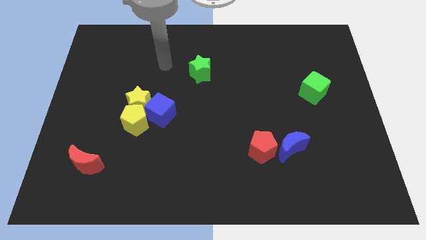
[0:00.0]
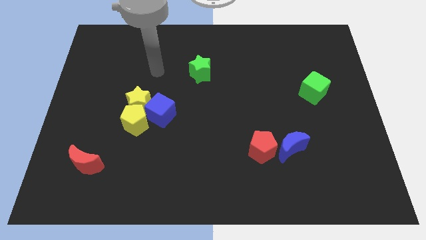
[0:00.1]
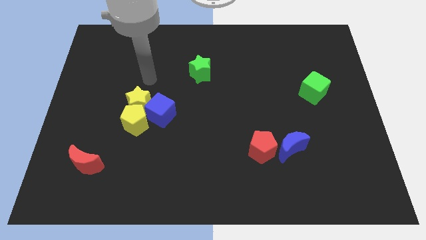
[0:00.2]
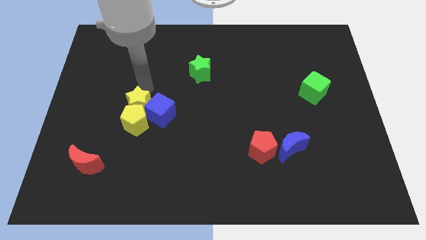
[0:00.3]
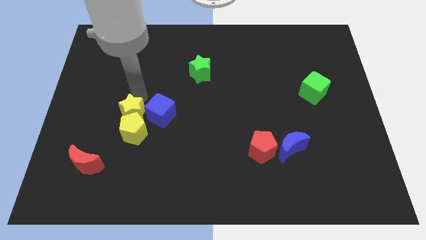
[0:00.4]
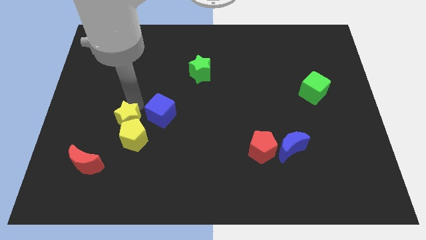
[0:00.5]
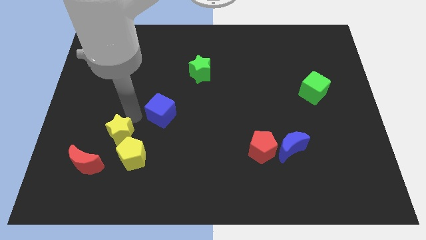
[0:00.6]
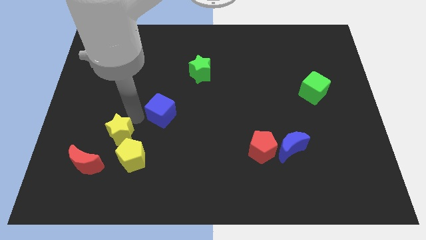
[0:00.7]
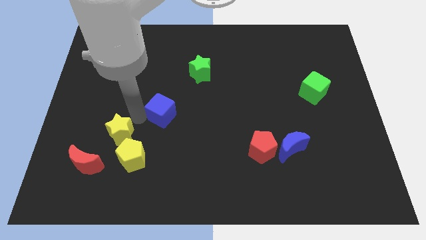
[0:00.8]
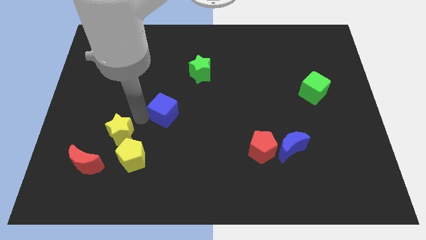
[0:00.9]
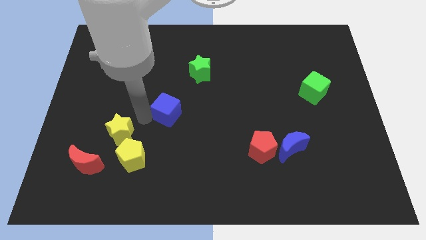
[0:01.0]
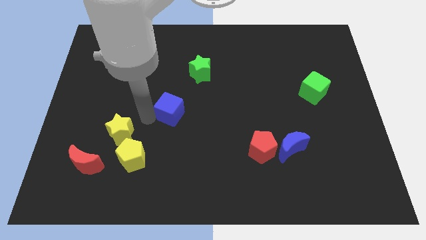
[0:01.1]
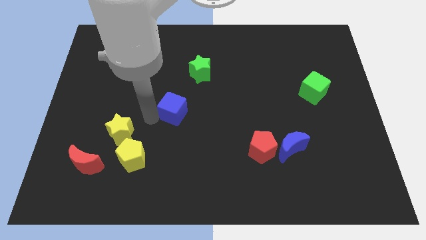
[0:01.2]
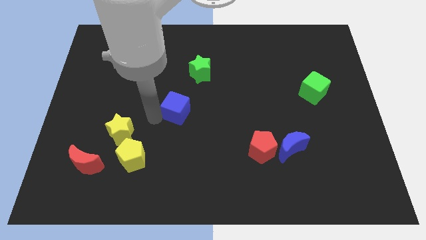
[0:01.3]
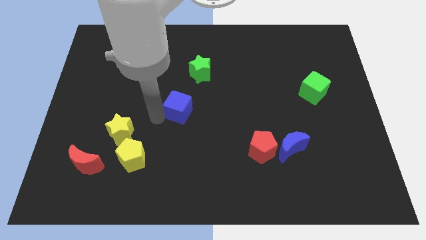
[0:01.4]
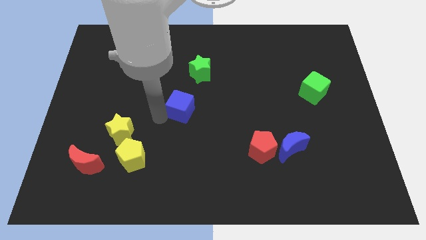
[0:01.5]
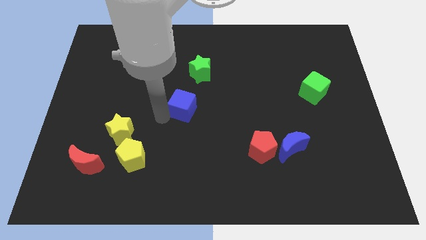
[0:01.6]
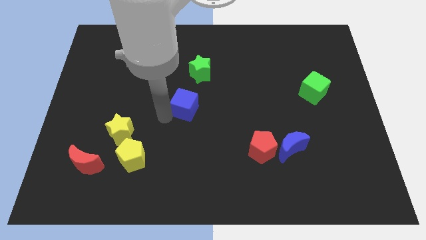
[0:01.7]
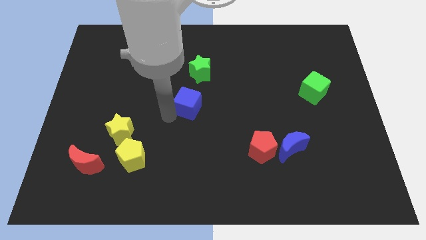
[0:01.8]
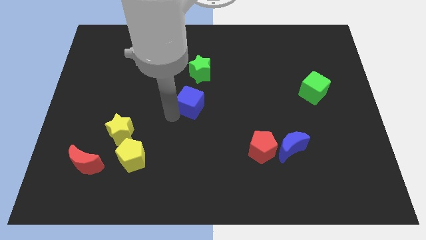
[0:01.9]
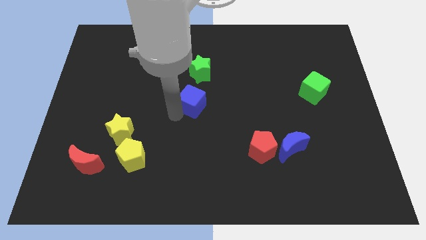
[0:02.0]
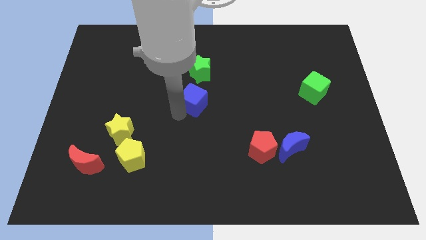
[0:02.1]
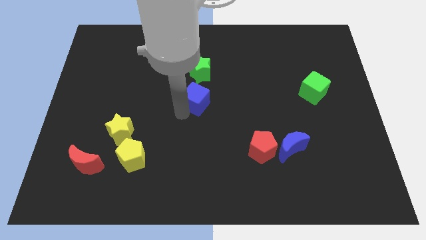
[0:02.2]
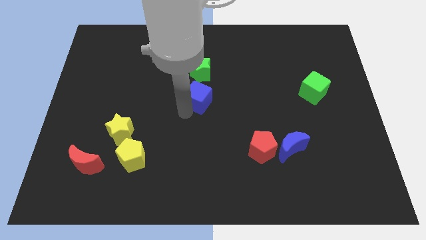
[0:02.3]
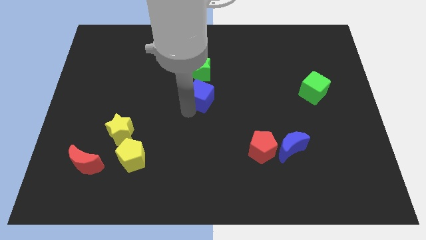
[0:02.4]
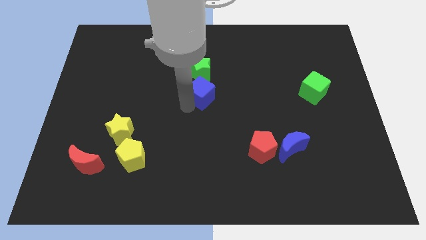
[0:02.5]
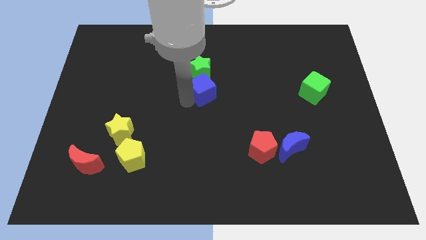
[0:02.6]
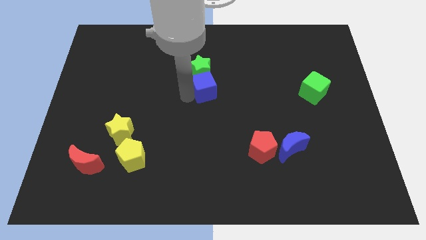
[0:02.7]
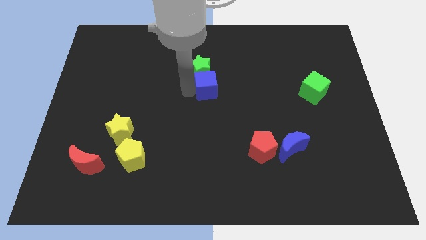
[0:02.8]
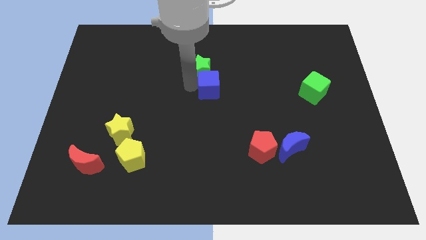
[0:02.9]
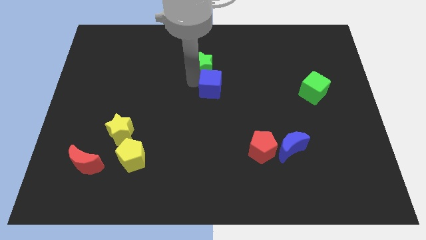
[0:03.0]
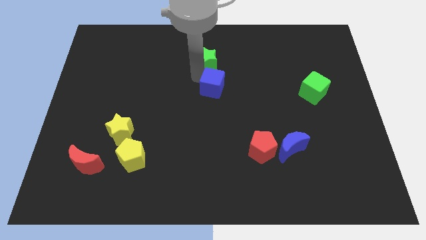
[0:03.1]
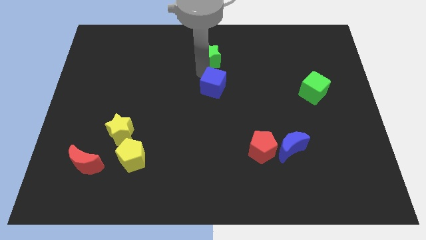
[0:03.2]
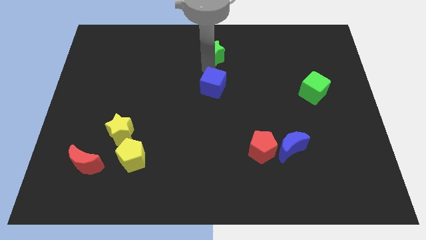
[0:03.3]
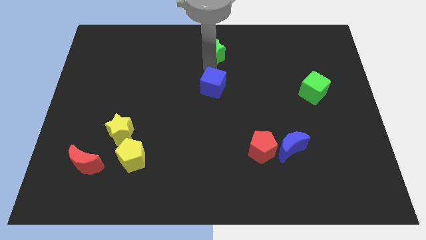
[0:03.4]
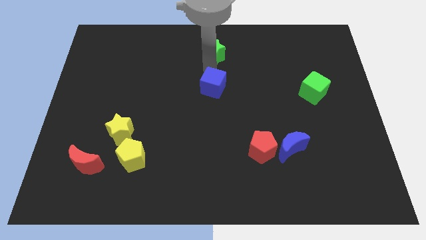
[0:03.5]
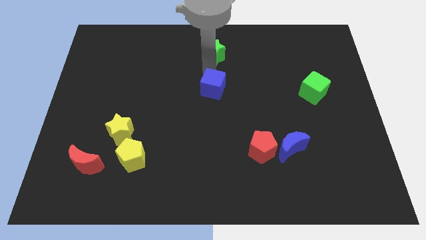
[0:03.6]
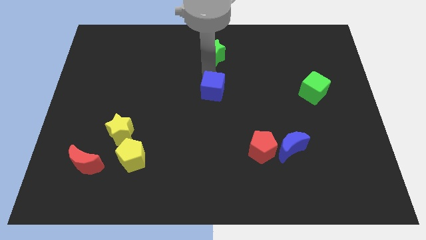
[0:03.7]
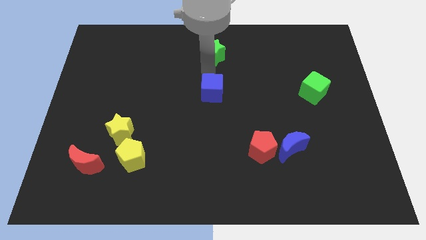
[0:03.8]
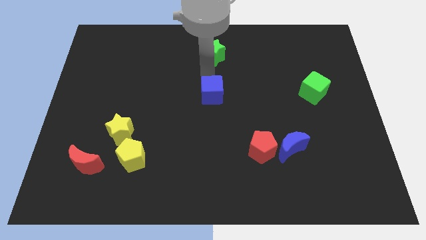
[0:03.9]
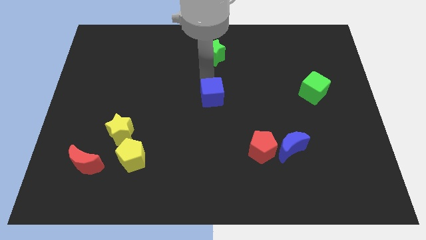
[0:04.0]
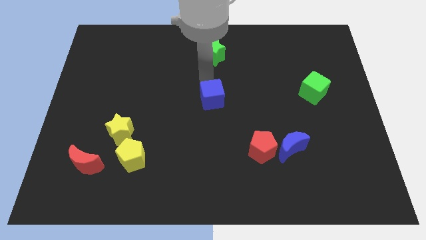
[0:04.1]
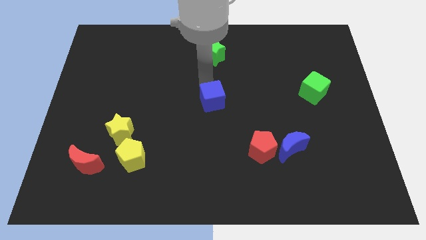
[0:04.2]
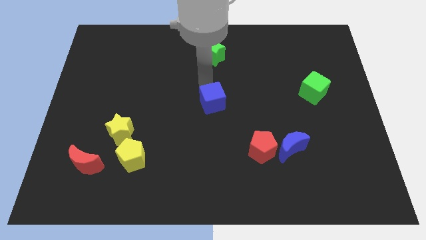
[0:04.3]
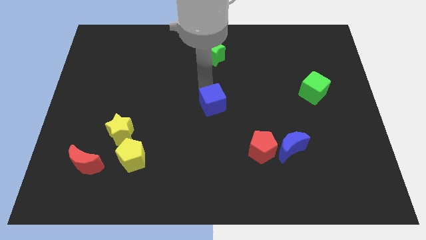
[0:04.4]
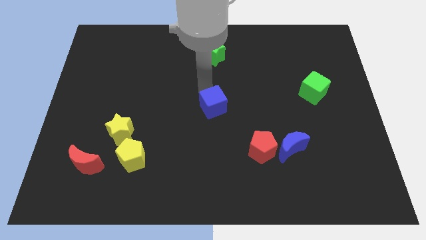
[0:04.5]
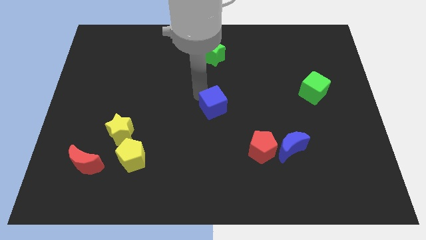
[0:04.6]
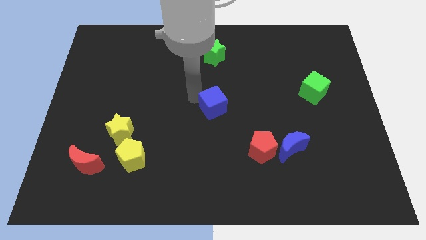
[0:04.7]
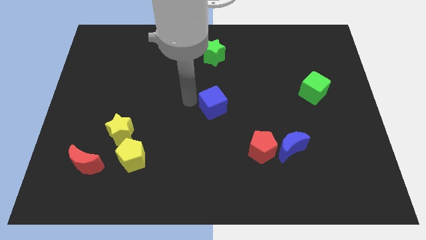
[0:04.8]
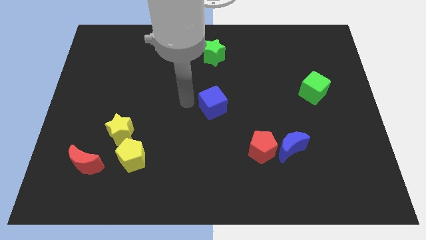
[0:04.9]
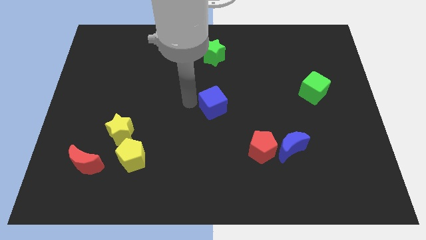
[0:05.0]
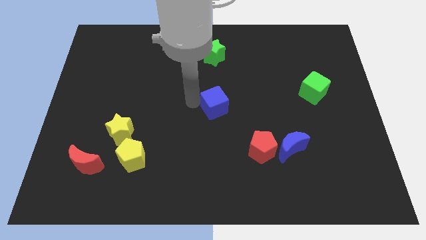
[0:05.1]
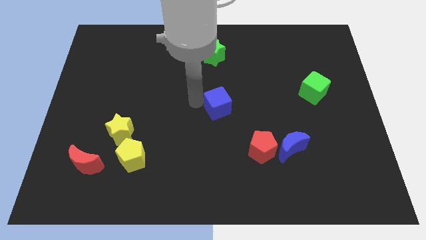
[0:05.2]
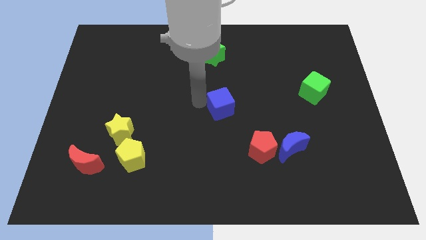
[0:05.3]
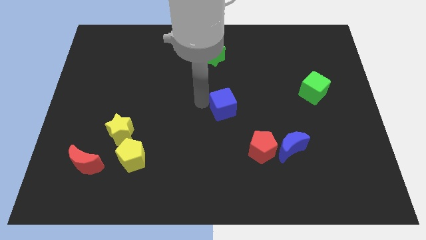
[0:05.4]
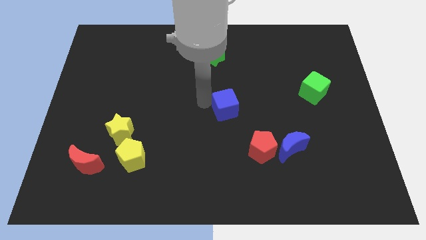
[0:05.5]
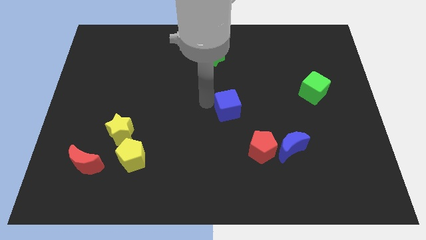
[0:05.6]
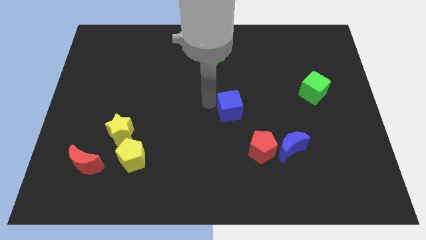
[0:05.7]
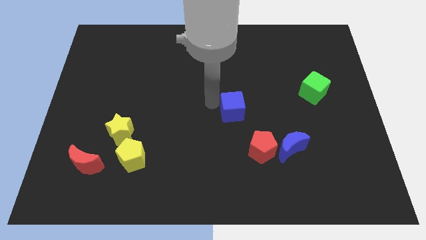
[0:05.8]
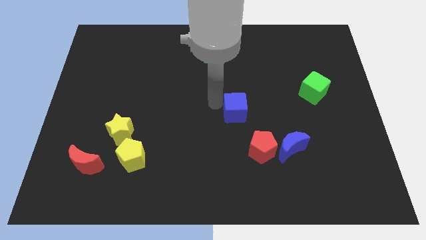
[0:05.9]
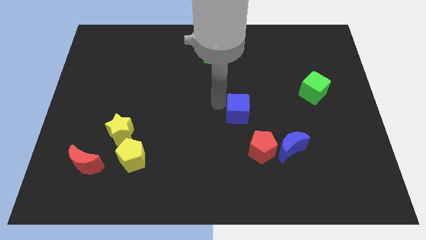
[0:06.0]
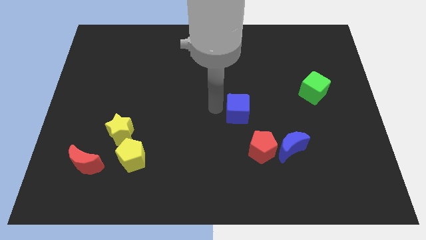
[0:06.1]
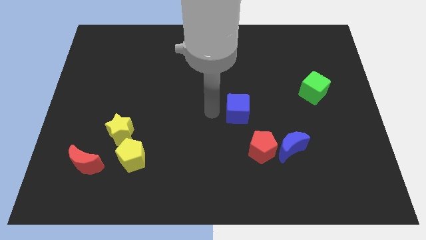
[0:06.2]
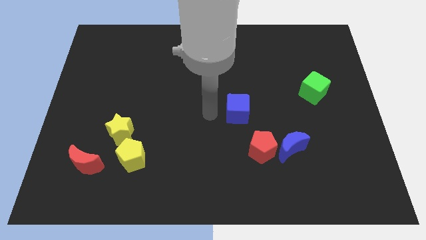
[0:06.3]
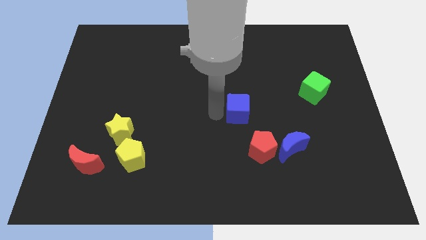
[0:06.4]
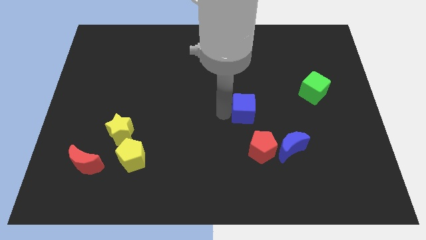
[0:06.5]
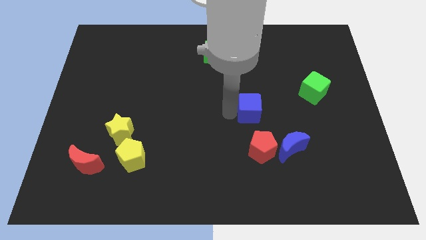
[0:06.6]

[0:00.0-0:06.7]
move the blue cube right

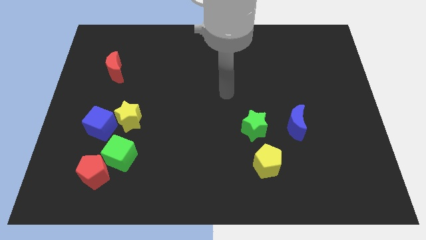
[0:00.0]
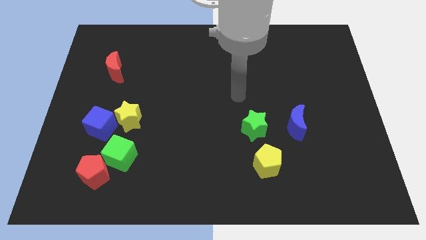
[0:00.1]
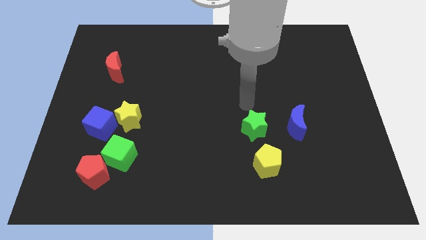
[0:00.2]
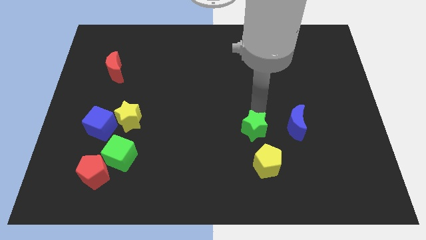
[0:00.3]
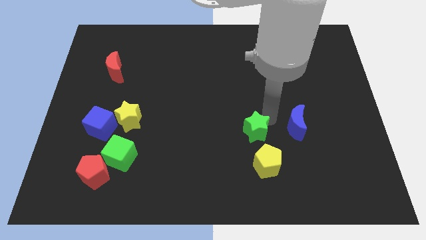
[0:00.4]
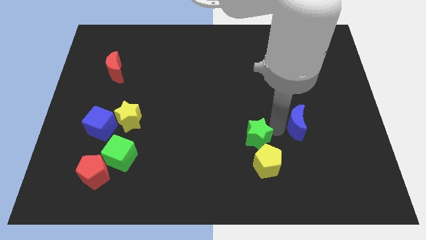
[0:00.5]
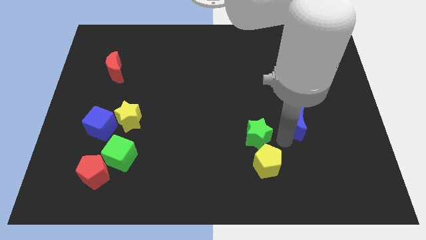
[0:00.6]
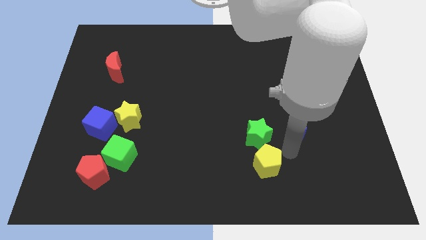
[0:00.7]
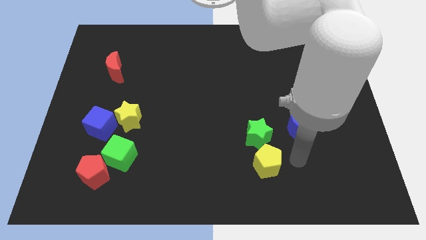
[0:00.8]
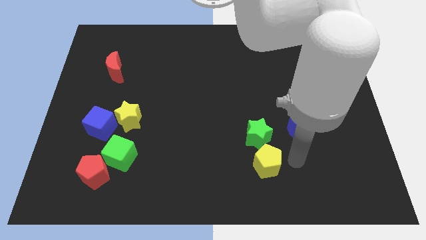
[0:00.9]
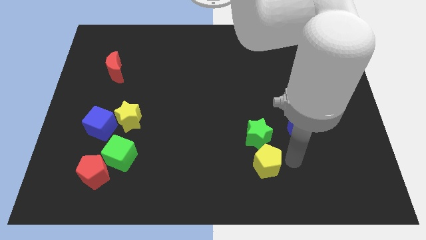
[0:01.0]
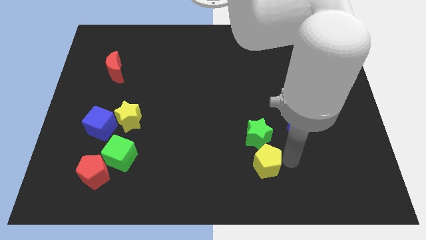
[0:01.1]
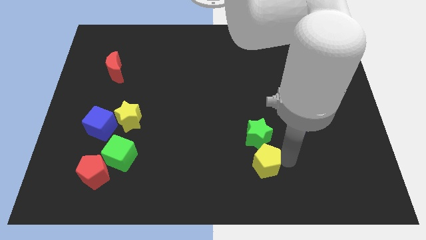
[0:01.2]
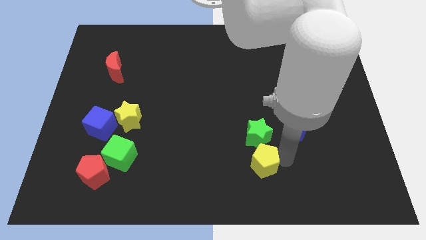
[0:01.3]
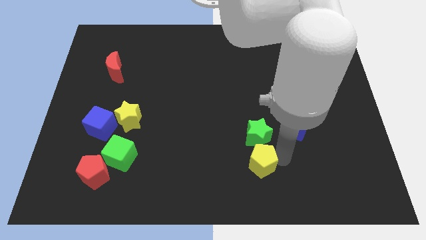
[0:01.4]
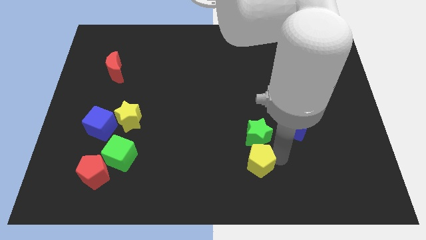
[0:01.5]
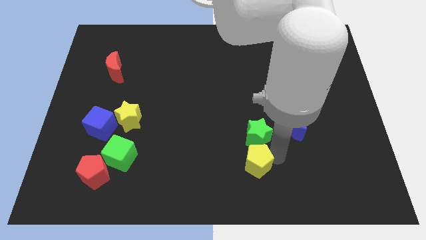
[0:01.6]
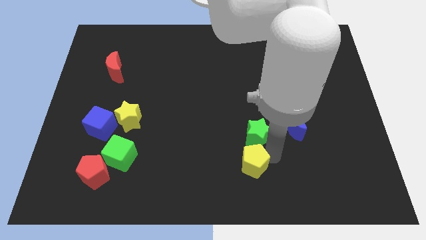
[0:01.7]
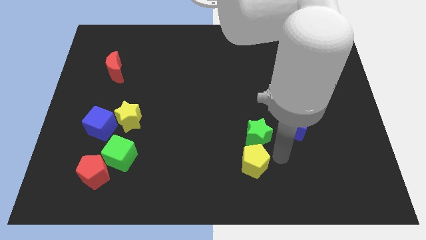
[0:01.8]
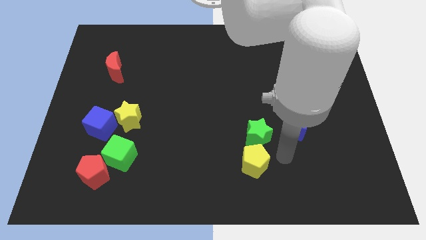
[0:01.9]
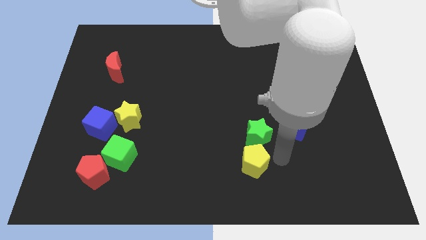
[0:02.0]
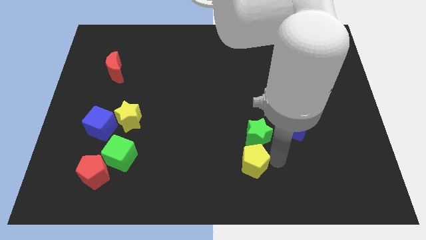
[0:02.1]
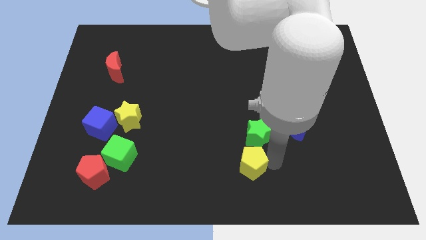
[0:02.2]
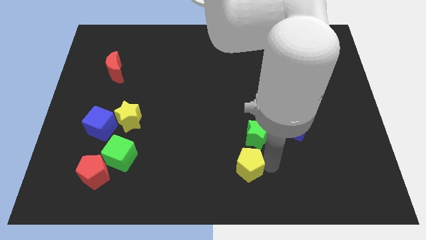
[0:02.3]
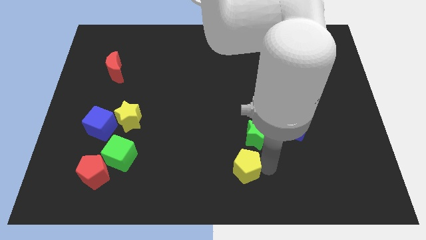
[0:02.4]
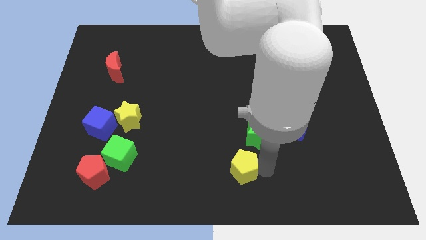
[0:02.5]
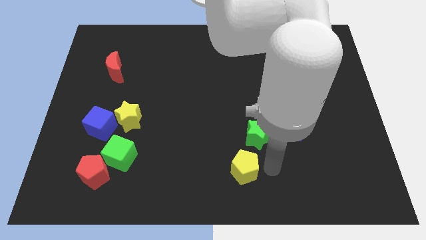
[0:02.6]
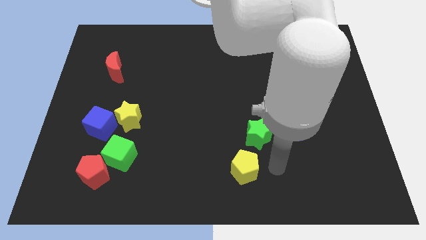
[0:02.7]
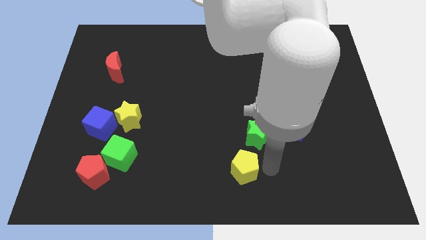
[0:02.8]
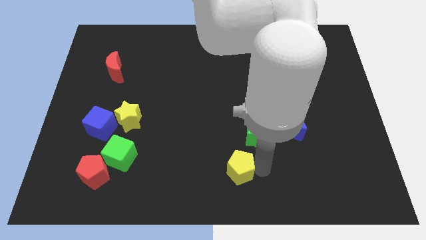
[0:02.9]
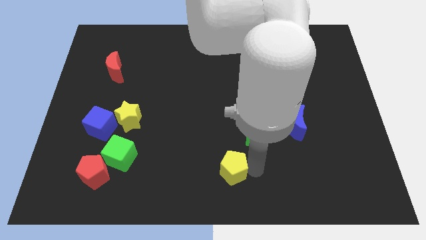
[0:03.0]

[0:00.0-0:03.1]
move the yellow pentagon slightly left
